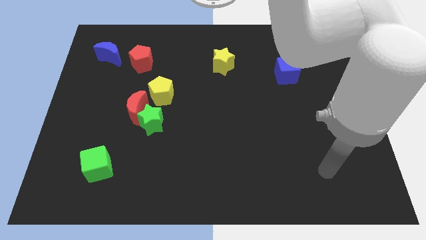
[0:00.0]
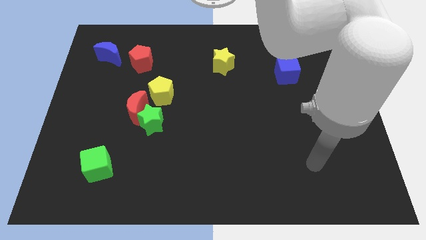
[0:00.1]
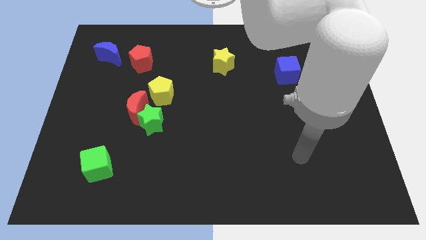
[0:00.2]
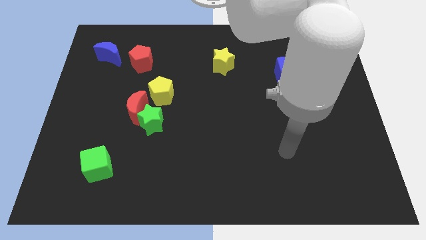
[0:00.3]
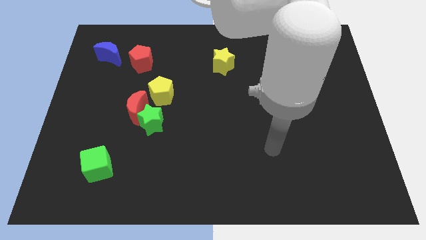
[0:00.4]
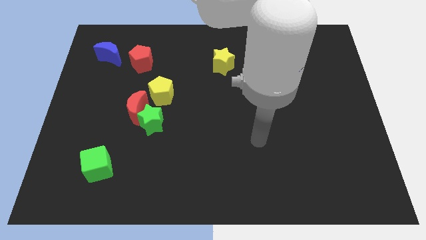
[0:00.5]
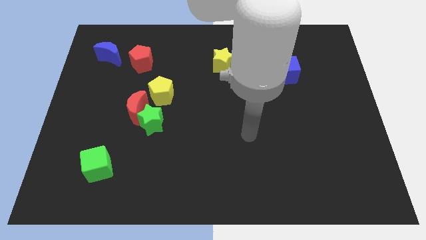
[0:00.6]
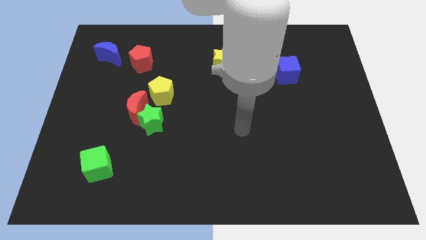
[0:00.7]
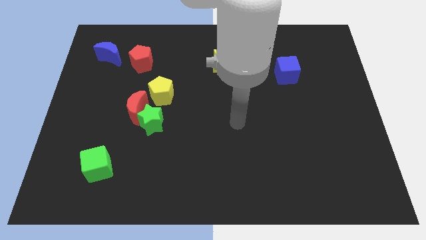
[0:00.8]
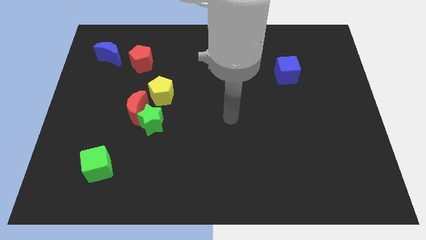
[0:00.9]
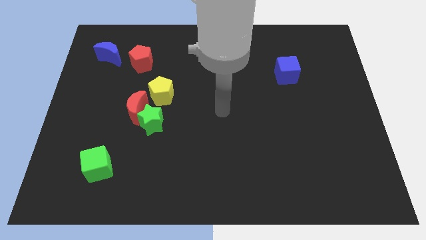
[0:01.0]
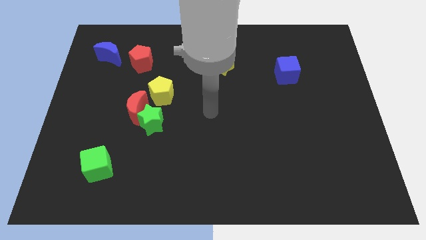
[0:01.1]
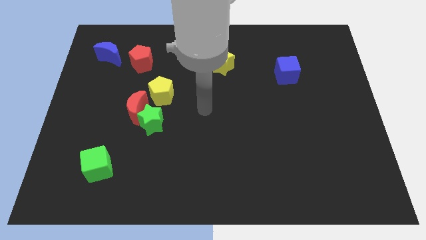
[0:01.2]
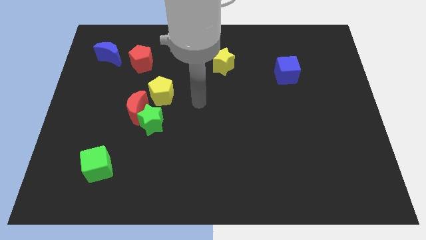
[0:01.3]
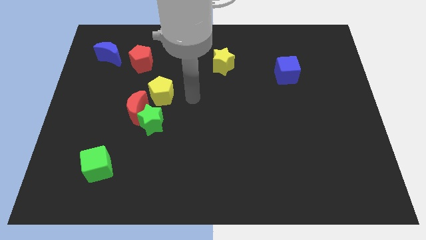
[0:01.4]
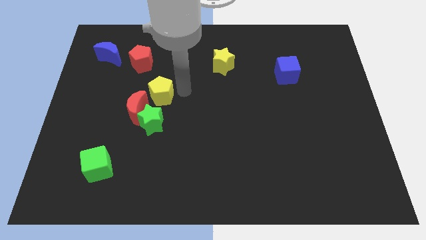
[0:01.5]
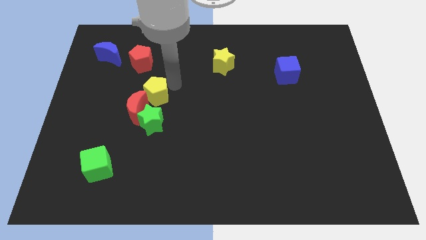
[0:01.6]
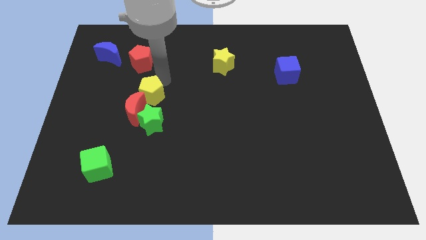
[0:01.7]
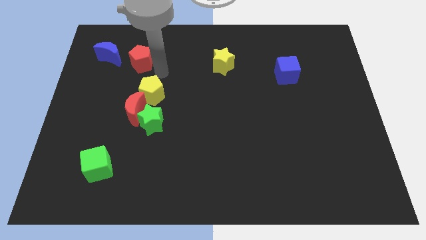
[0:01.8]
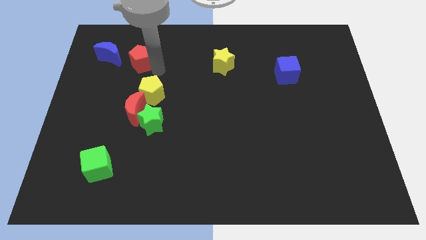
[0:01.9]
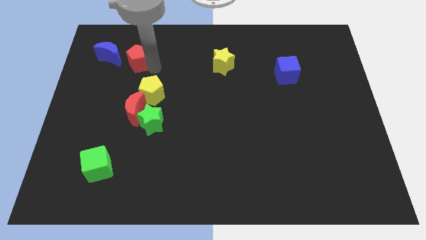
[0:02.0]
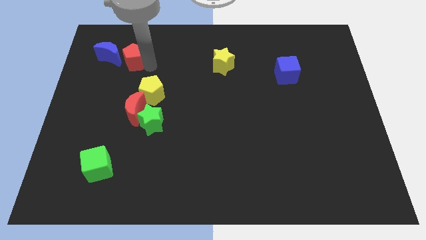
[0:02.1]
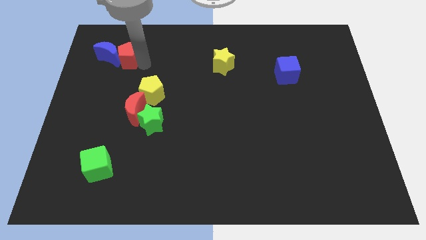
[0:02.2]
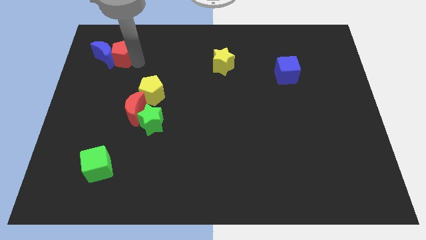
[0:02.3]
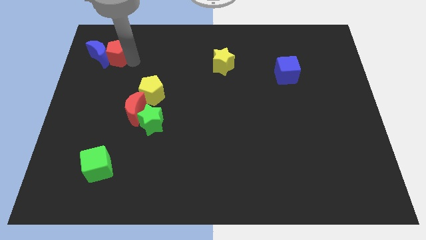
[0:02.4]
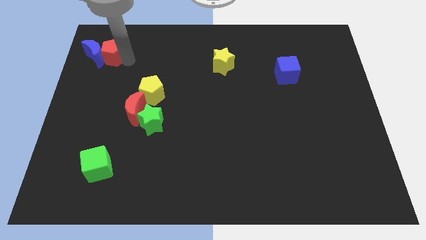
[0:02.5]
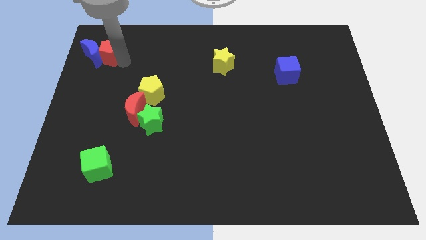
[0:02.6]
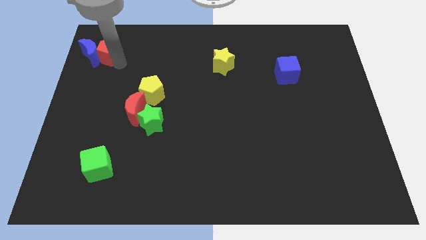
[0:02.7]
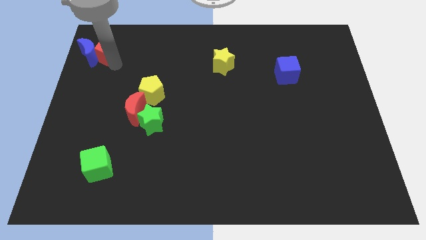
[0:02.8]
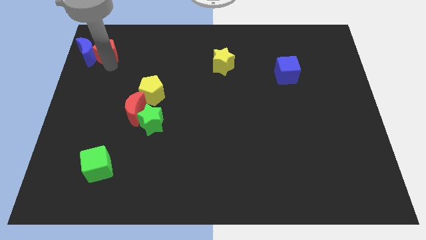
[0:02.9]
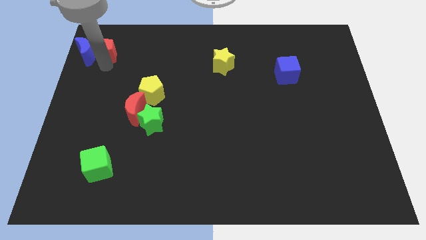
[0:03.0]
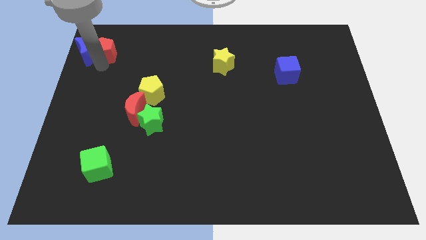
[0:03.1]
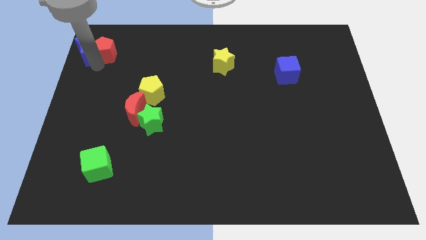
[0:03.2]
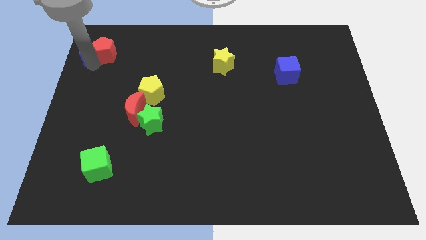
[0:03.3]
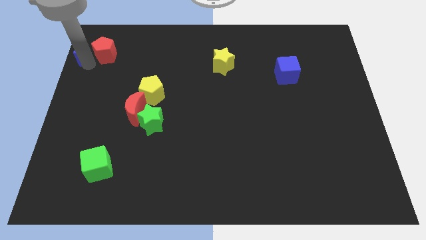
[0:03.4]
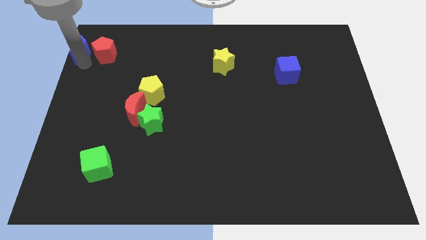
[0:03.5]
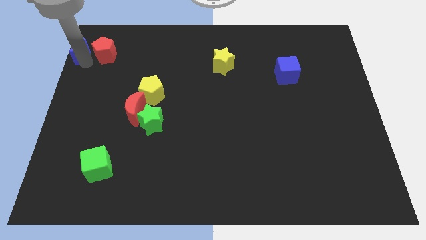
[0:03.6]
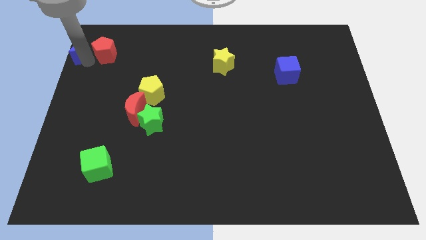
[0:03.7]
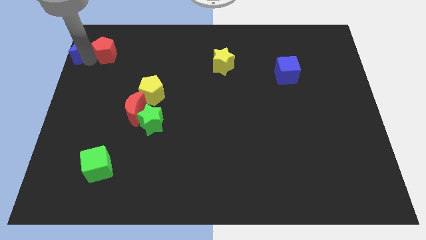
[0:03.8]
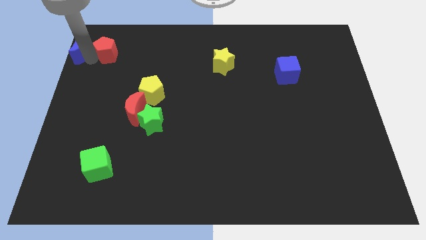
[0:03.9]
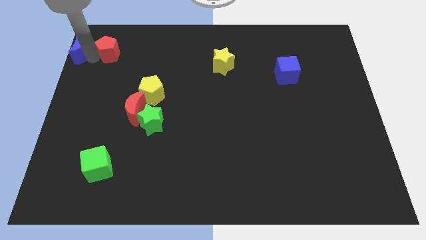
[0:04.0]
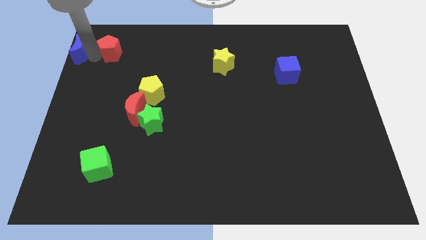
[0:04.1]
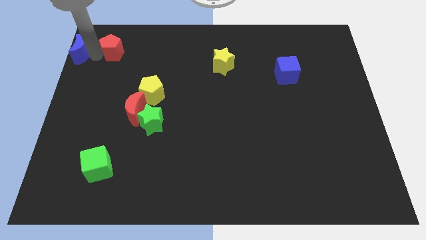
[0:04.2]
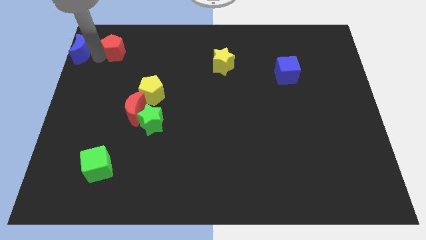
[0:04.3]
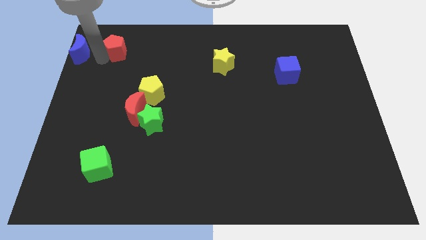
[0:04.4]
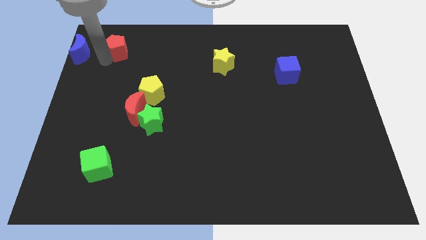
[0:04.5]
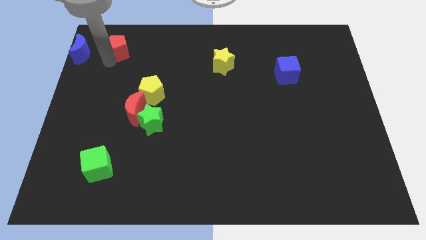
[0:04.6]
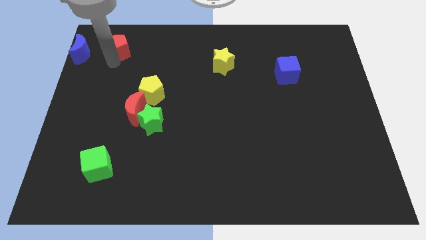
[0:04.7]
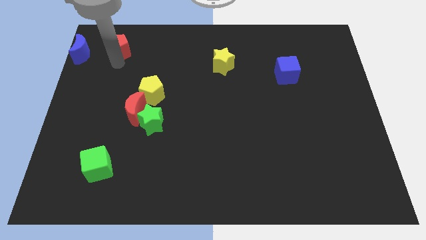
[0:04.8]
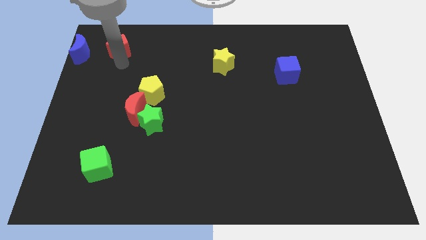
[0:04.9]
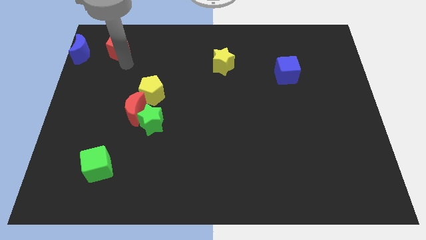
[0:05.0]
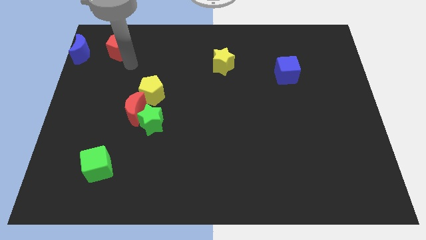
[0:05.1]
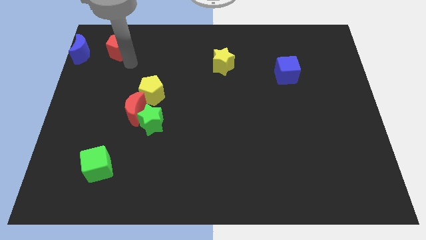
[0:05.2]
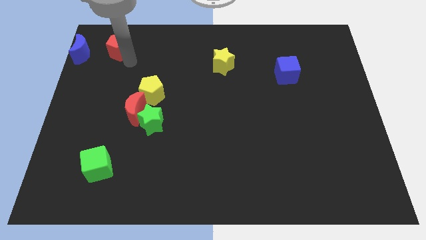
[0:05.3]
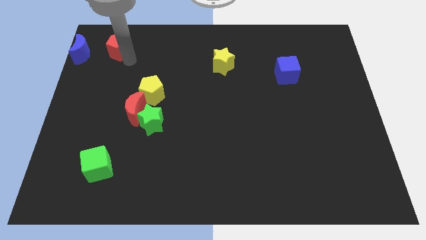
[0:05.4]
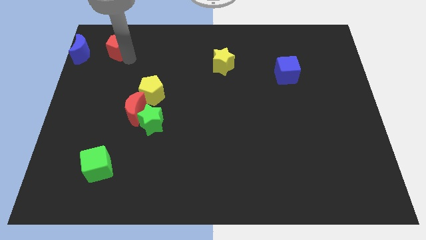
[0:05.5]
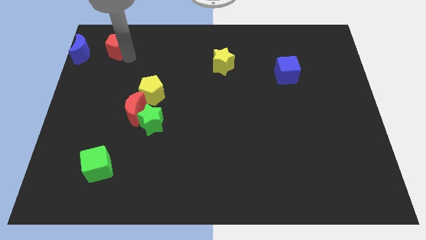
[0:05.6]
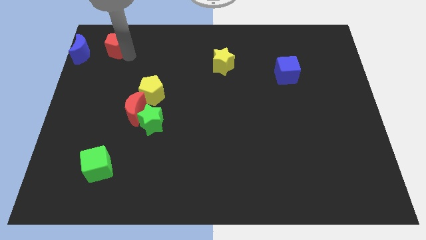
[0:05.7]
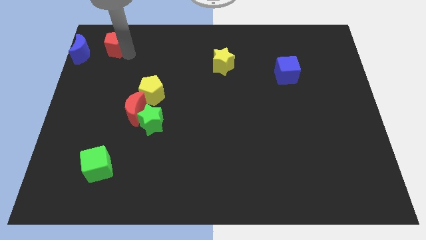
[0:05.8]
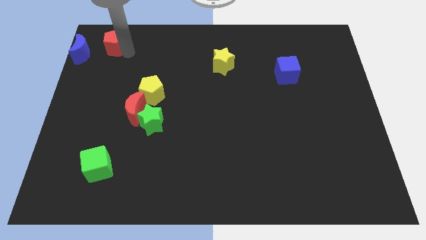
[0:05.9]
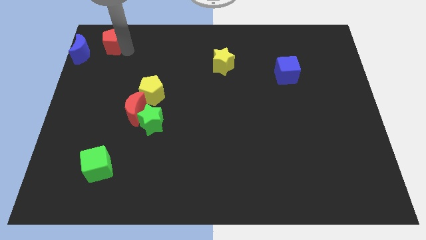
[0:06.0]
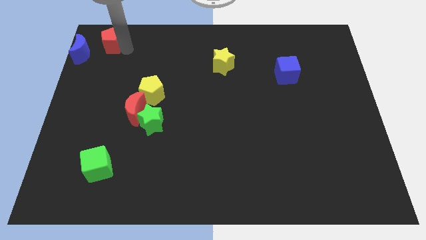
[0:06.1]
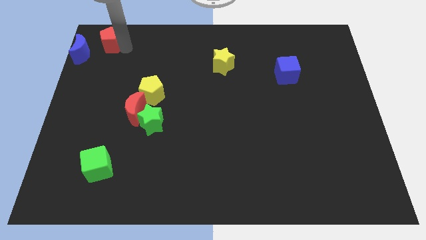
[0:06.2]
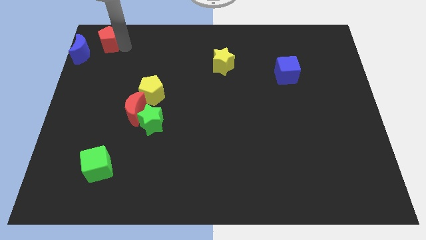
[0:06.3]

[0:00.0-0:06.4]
move the red pentagon to the top left of the board

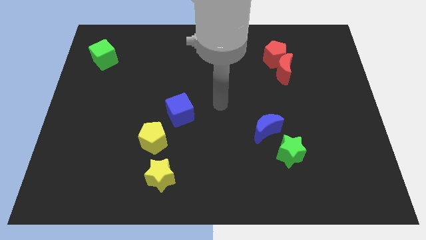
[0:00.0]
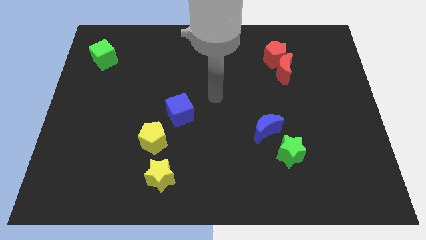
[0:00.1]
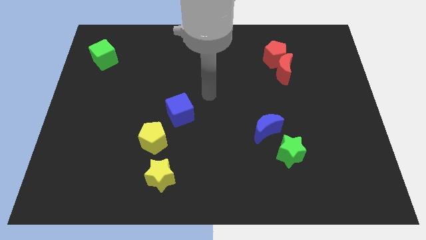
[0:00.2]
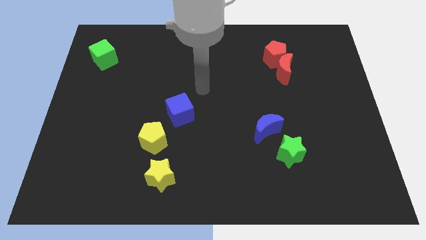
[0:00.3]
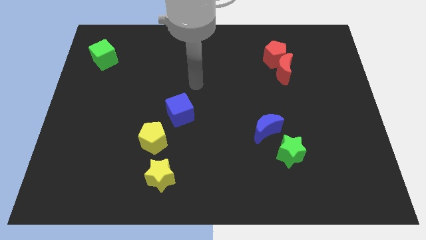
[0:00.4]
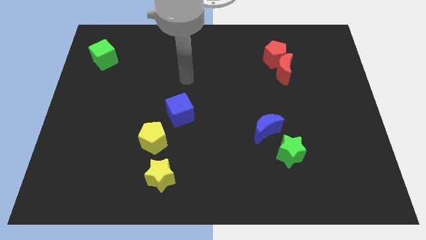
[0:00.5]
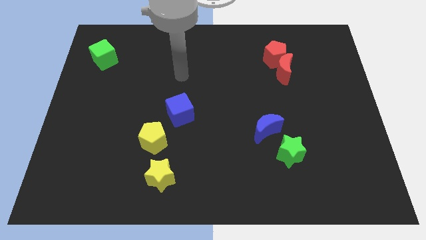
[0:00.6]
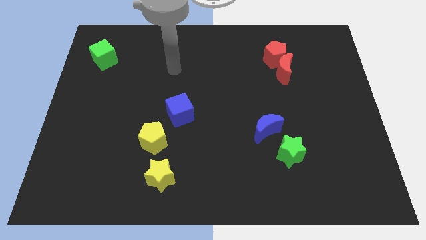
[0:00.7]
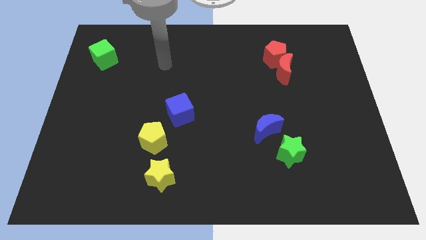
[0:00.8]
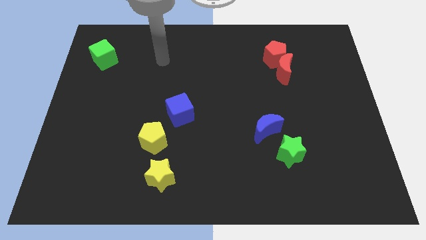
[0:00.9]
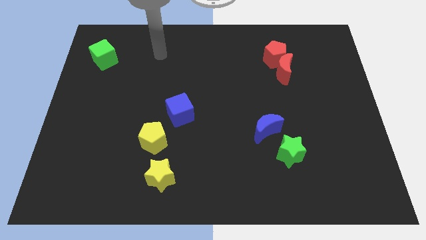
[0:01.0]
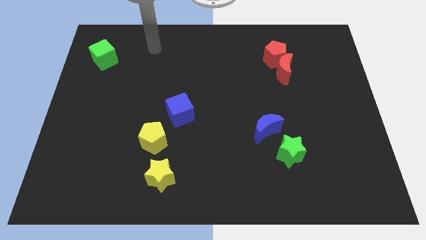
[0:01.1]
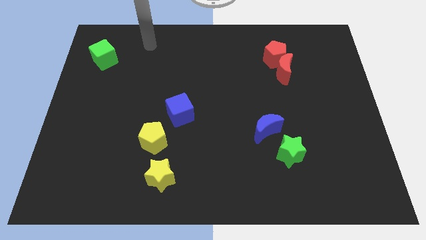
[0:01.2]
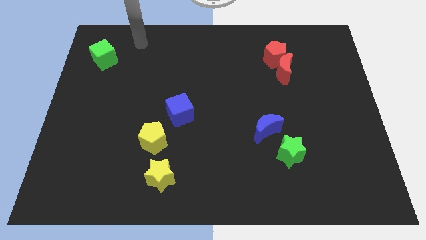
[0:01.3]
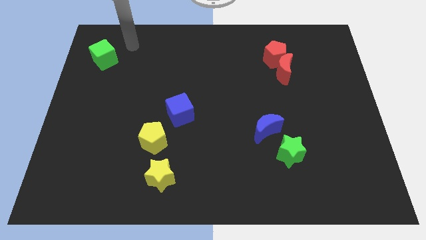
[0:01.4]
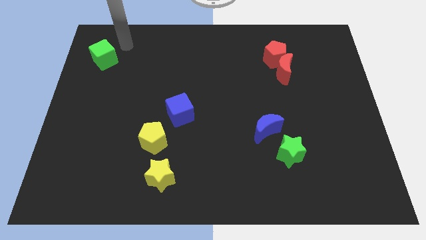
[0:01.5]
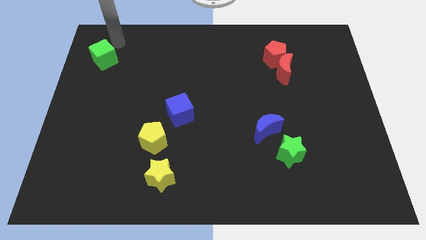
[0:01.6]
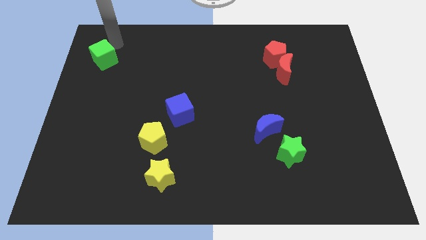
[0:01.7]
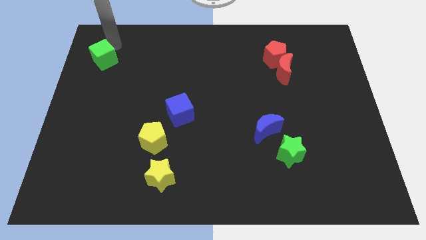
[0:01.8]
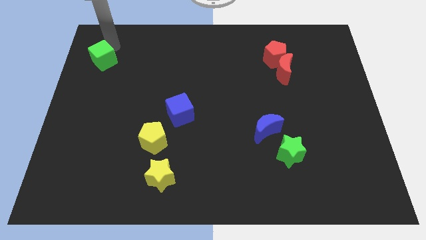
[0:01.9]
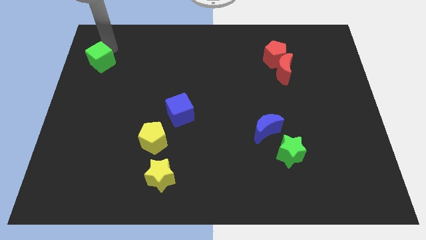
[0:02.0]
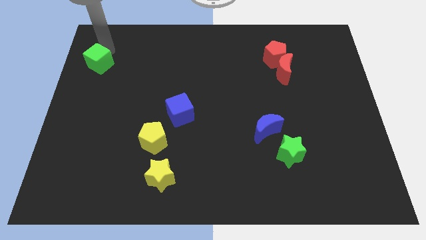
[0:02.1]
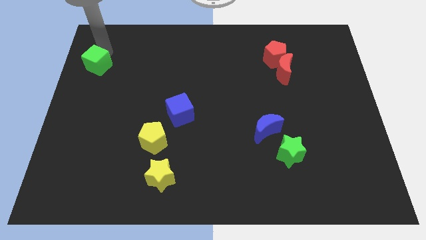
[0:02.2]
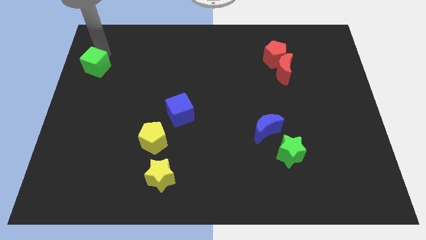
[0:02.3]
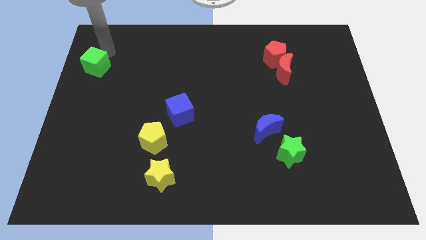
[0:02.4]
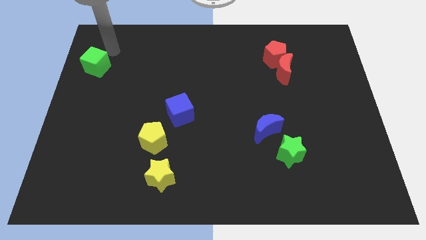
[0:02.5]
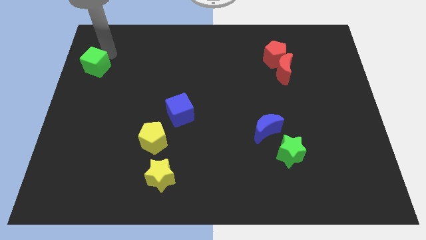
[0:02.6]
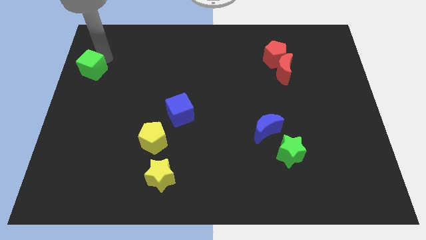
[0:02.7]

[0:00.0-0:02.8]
slide the green cube to the left side
